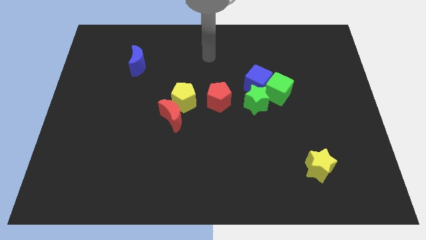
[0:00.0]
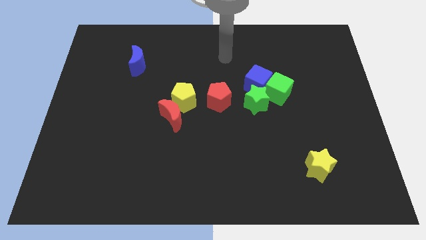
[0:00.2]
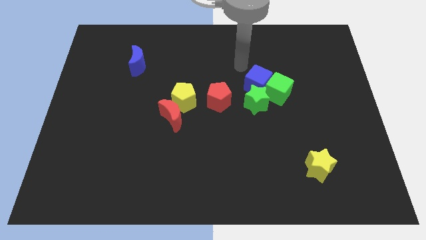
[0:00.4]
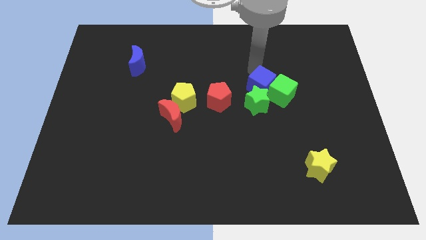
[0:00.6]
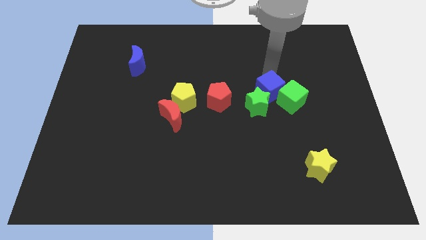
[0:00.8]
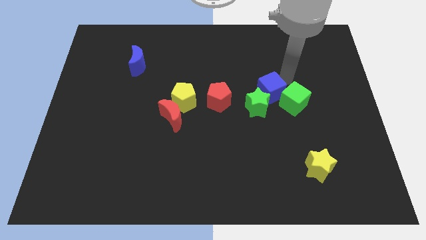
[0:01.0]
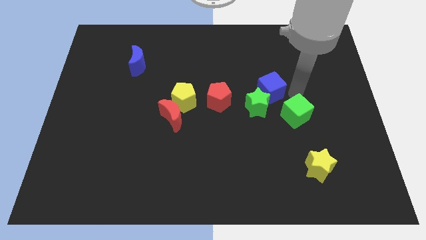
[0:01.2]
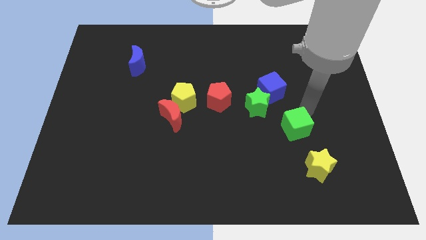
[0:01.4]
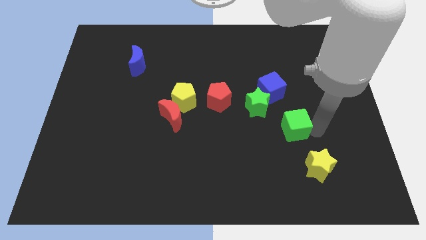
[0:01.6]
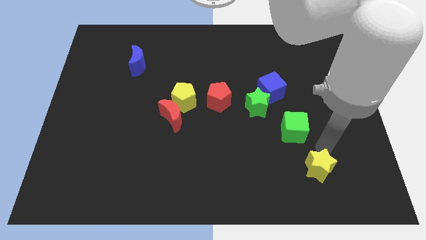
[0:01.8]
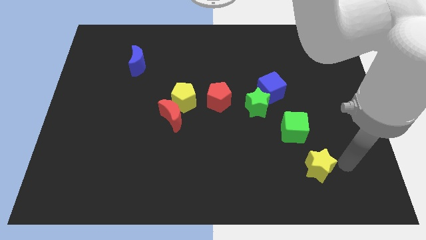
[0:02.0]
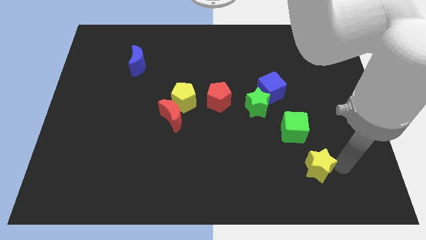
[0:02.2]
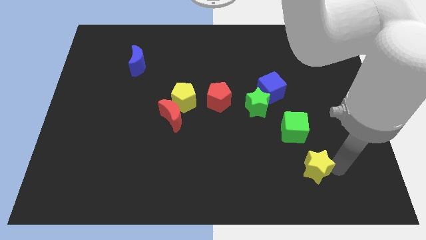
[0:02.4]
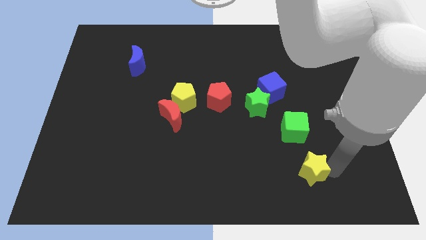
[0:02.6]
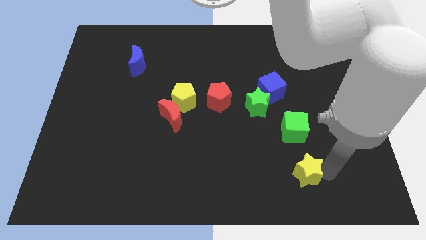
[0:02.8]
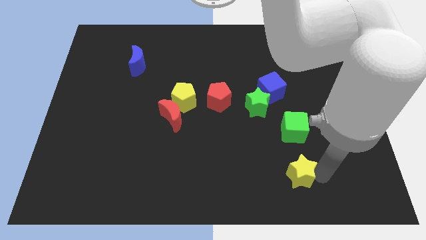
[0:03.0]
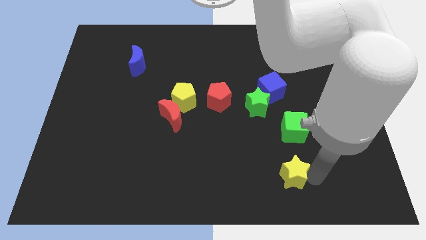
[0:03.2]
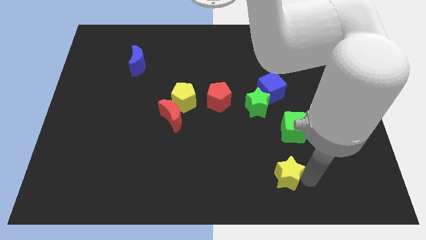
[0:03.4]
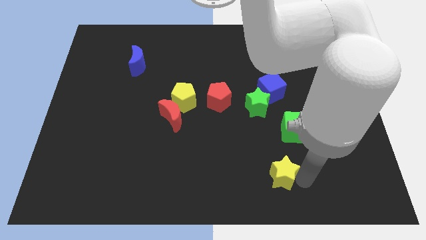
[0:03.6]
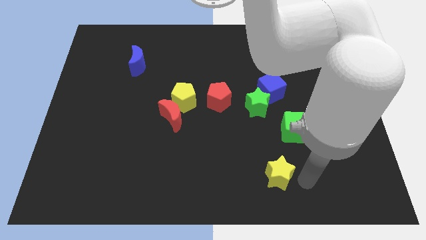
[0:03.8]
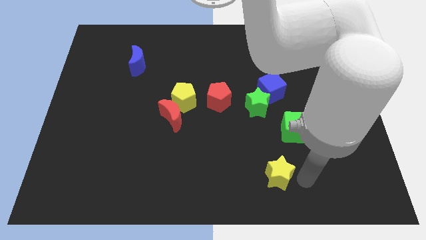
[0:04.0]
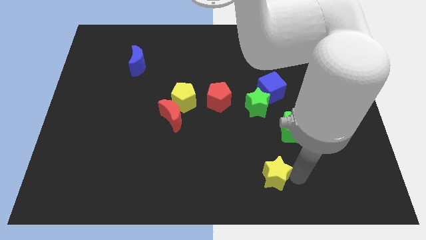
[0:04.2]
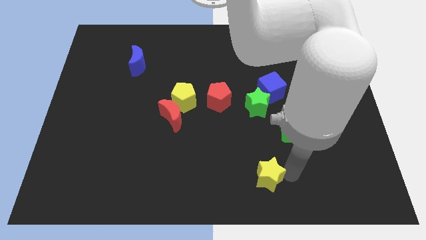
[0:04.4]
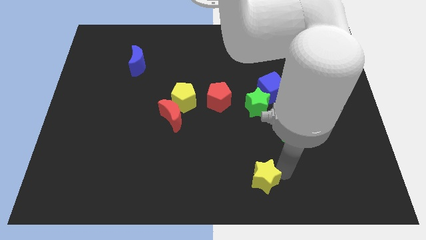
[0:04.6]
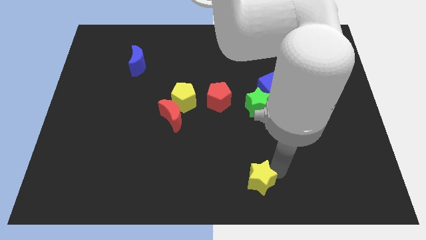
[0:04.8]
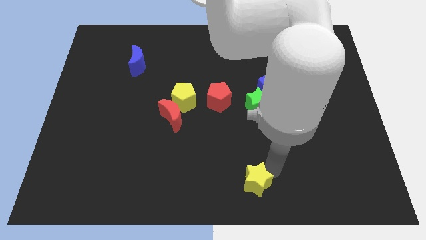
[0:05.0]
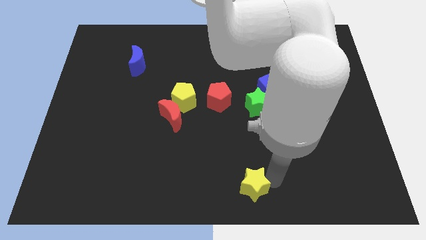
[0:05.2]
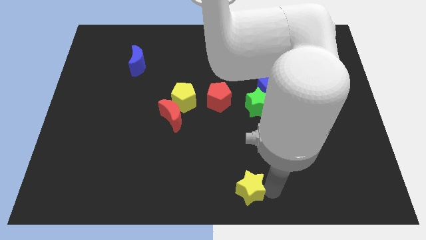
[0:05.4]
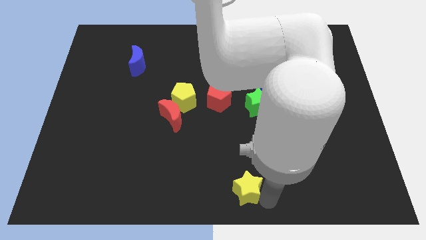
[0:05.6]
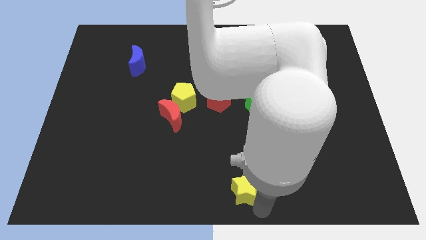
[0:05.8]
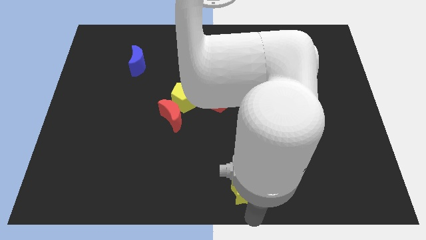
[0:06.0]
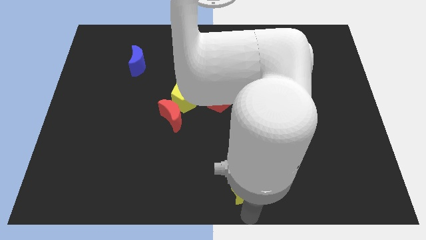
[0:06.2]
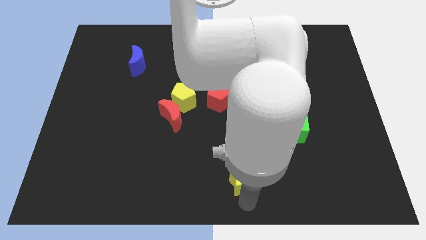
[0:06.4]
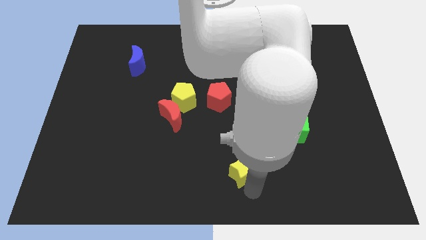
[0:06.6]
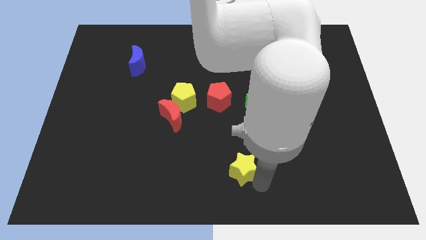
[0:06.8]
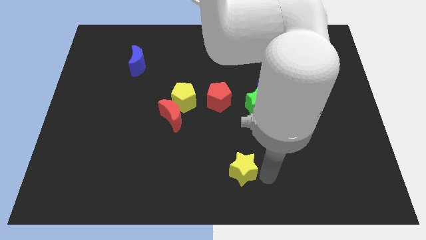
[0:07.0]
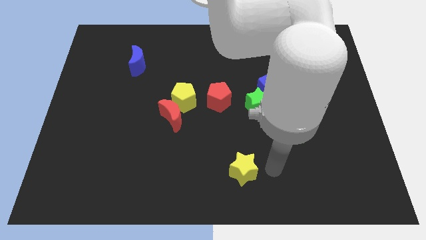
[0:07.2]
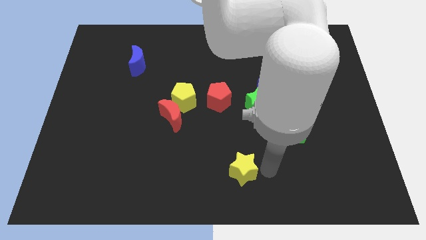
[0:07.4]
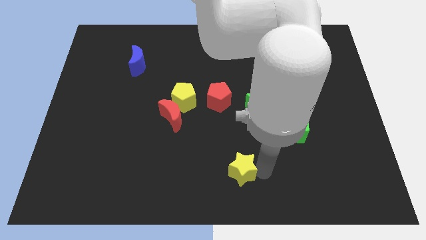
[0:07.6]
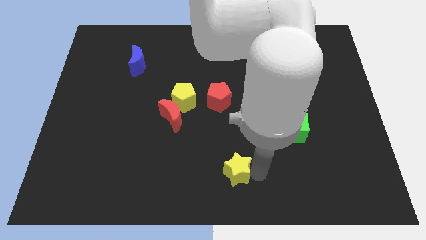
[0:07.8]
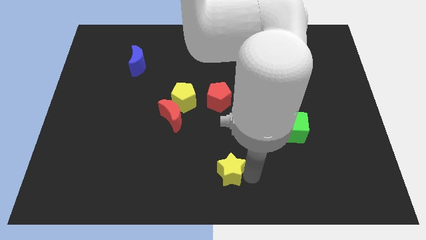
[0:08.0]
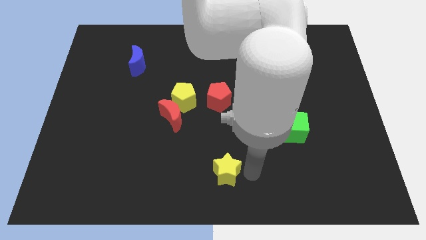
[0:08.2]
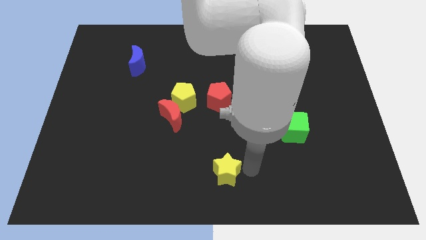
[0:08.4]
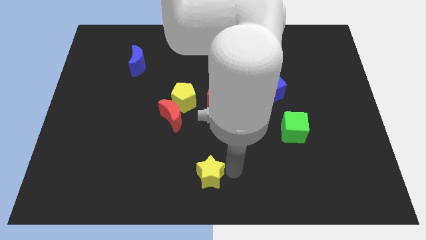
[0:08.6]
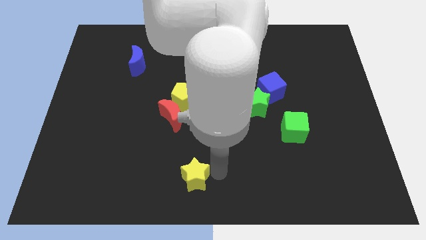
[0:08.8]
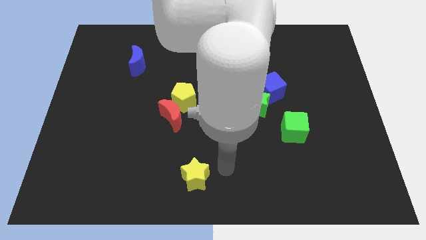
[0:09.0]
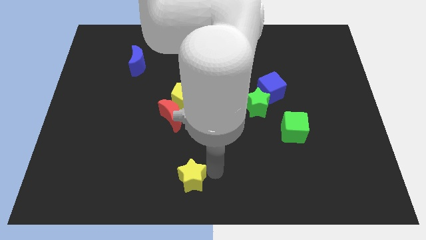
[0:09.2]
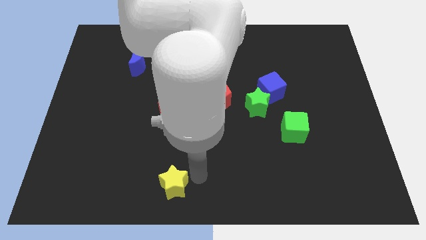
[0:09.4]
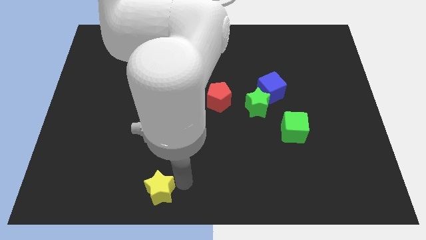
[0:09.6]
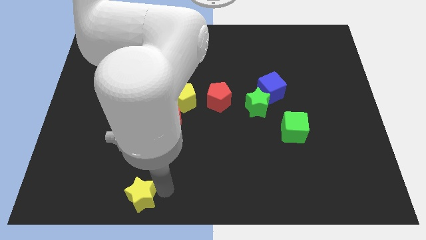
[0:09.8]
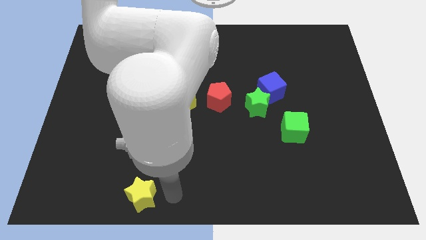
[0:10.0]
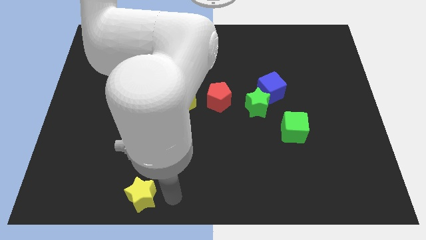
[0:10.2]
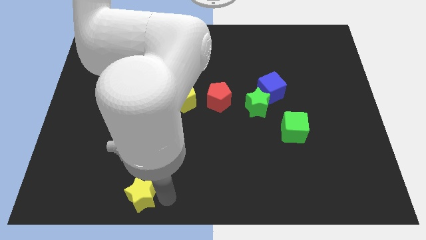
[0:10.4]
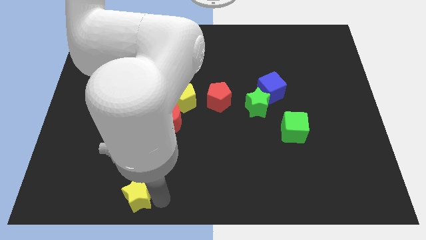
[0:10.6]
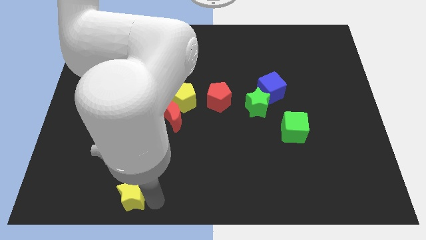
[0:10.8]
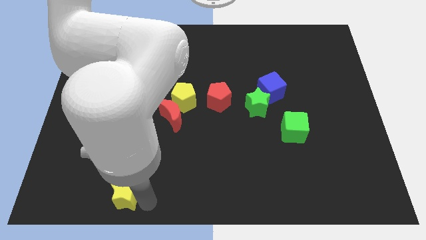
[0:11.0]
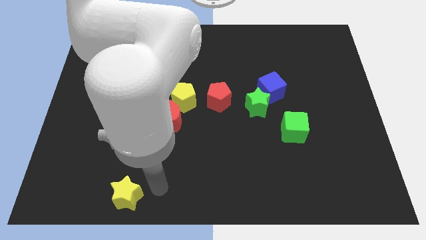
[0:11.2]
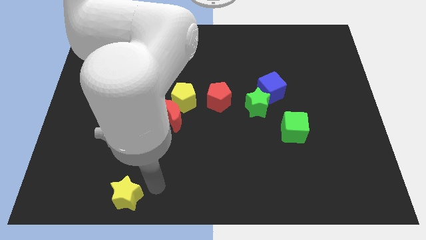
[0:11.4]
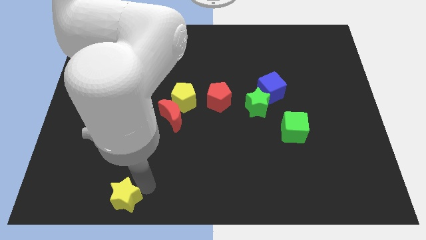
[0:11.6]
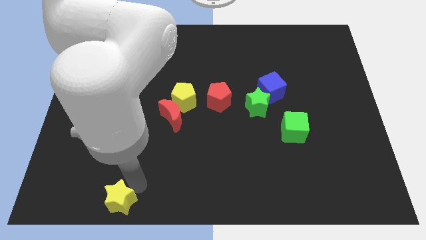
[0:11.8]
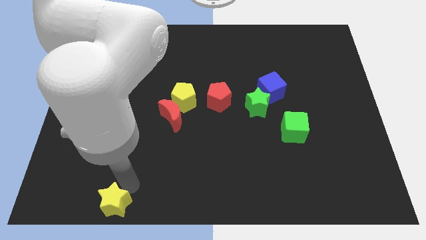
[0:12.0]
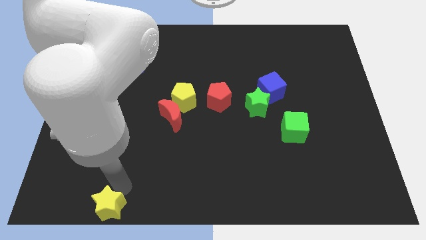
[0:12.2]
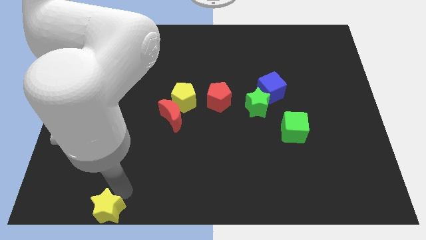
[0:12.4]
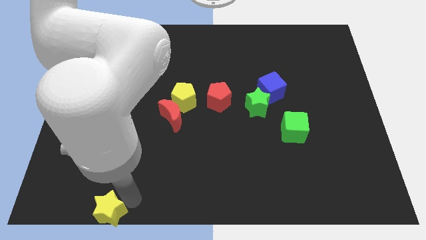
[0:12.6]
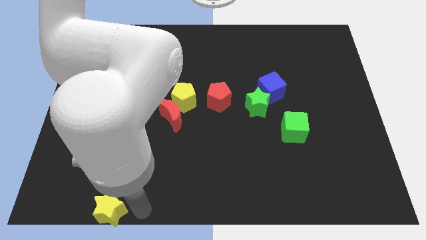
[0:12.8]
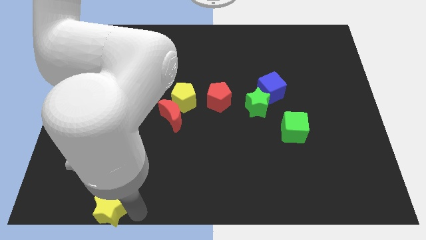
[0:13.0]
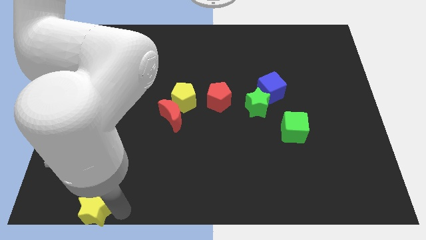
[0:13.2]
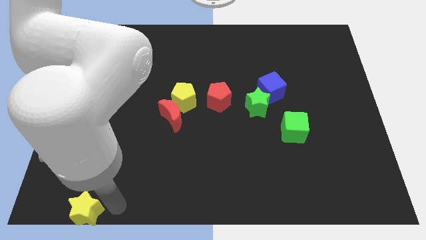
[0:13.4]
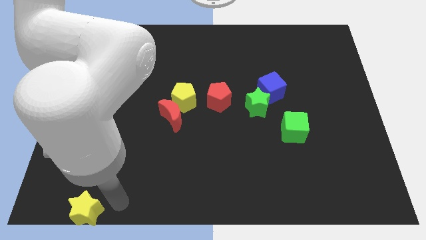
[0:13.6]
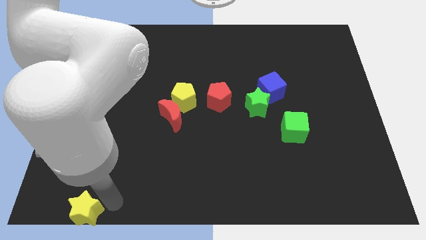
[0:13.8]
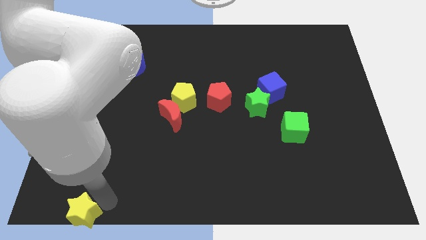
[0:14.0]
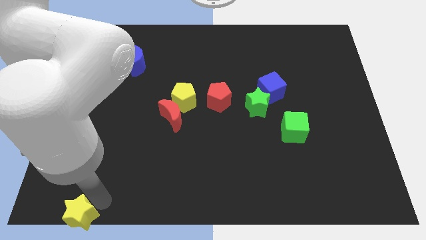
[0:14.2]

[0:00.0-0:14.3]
move the yellow star to the bottom left

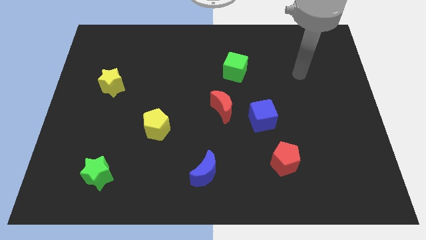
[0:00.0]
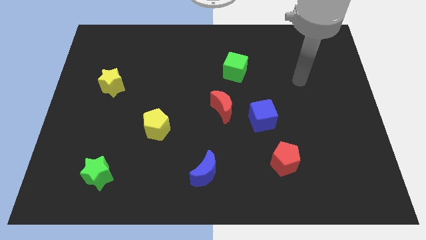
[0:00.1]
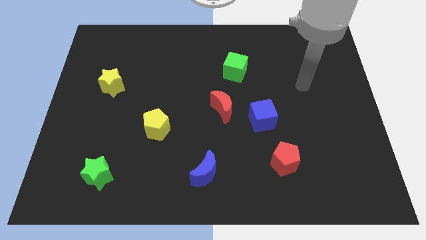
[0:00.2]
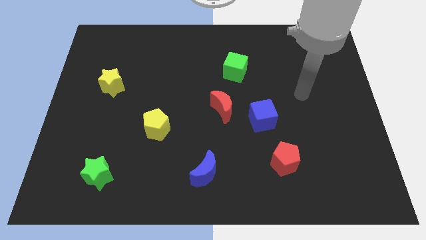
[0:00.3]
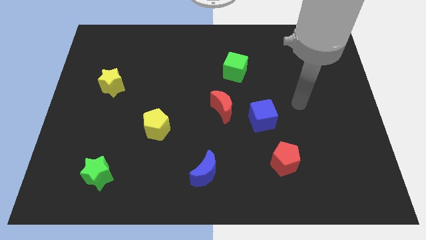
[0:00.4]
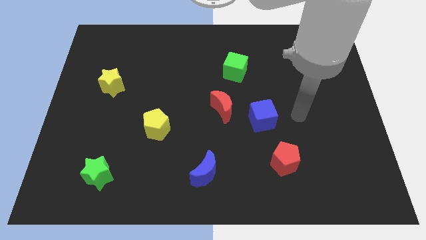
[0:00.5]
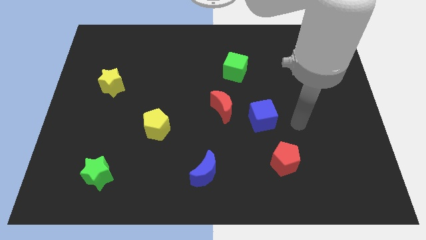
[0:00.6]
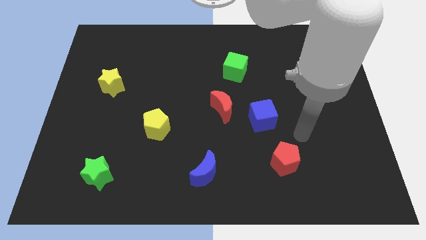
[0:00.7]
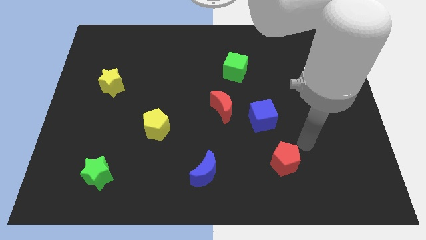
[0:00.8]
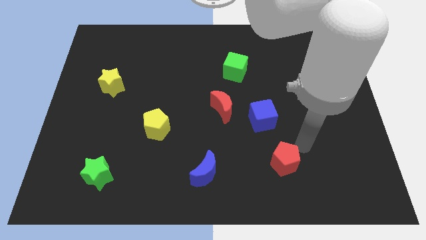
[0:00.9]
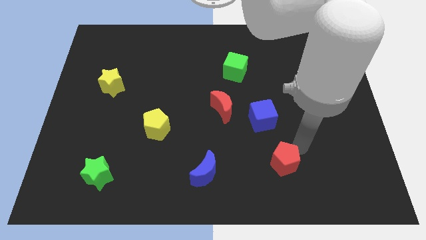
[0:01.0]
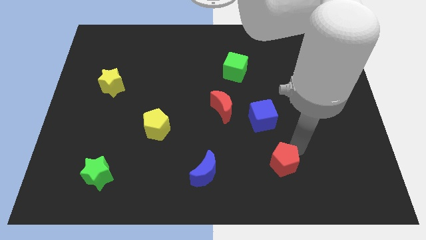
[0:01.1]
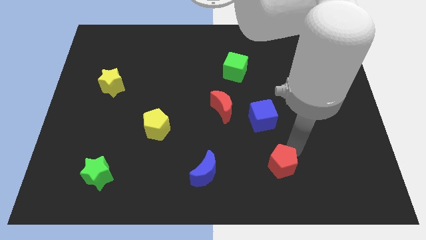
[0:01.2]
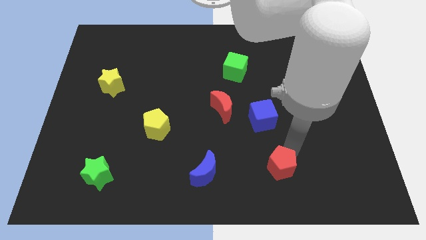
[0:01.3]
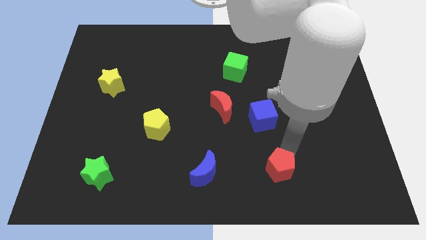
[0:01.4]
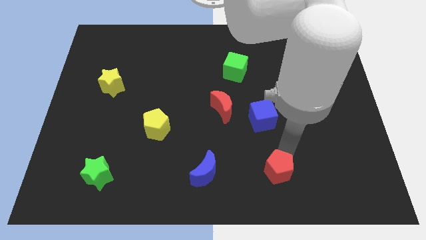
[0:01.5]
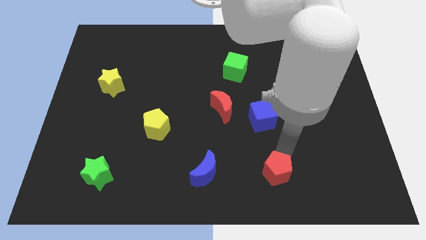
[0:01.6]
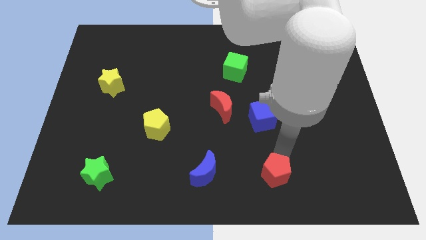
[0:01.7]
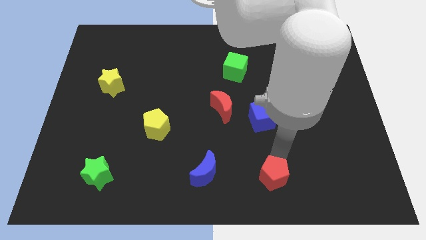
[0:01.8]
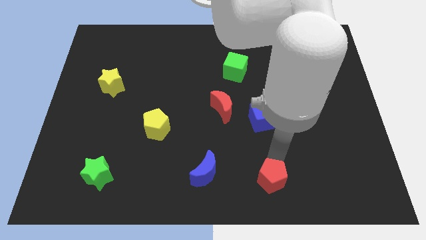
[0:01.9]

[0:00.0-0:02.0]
push the red pentagon to the bottom side
